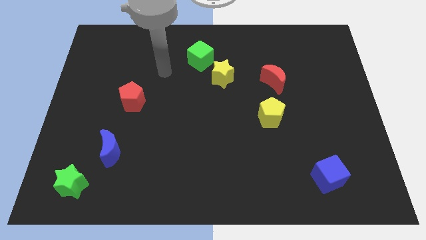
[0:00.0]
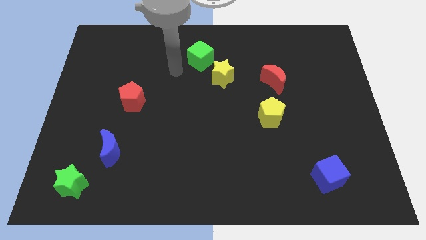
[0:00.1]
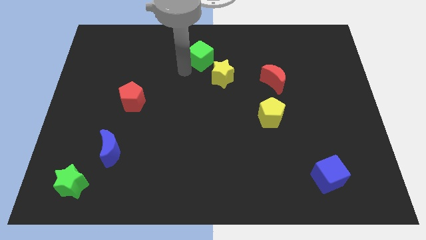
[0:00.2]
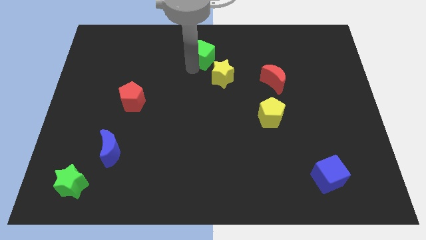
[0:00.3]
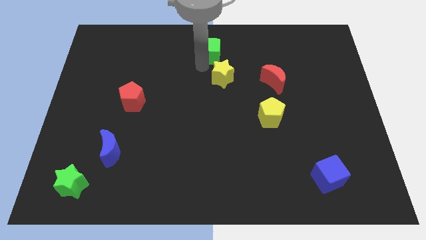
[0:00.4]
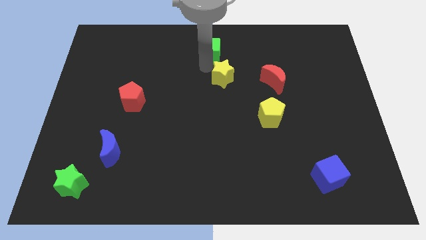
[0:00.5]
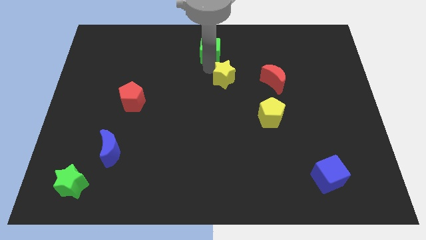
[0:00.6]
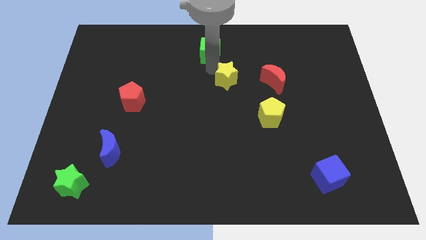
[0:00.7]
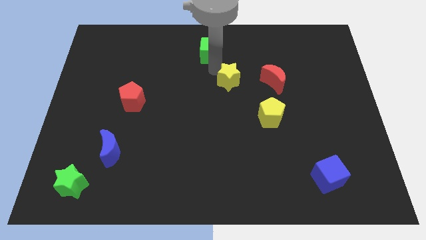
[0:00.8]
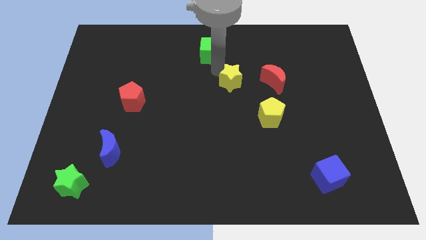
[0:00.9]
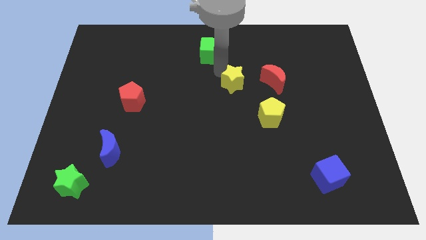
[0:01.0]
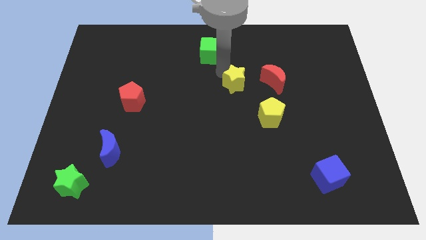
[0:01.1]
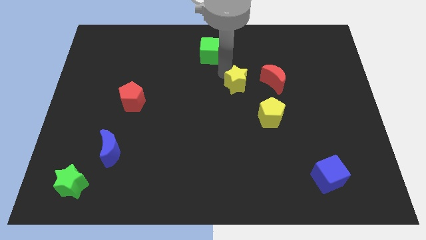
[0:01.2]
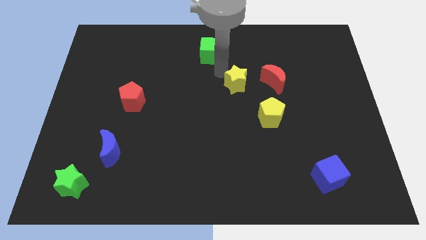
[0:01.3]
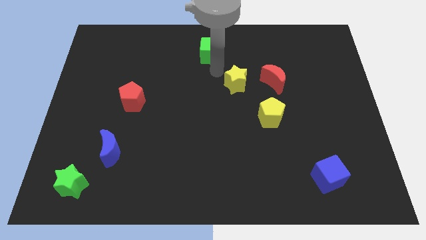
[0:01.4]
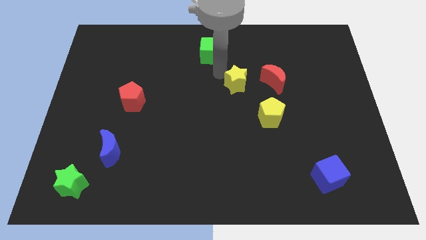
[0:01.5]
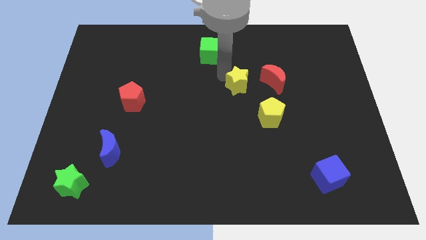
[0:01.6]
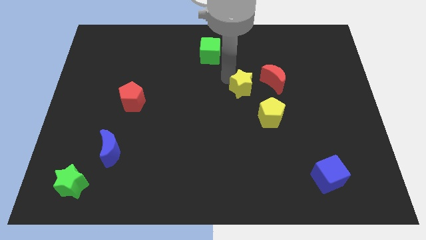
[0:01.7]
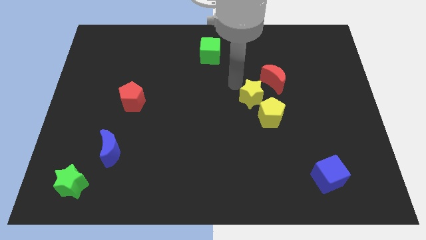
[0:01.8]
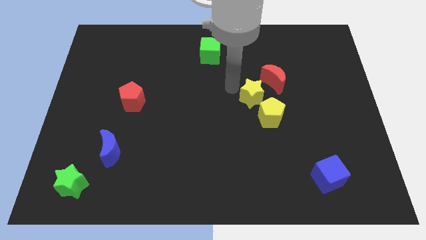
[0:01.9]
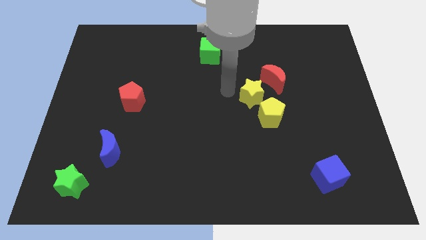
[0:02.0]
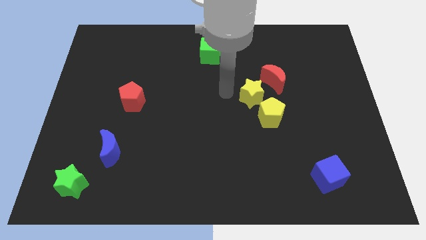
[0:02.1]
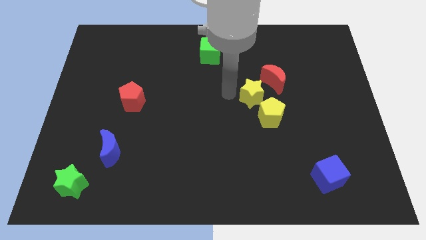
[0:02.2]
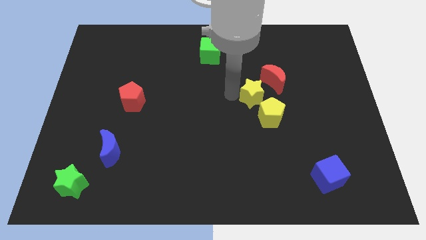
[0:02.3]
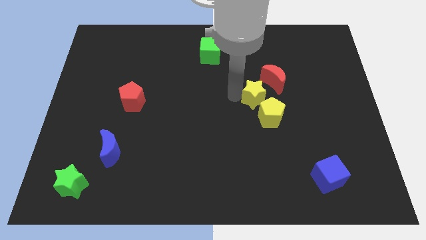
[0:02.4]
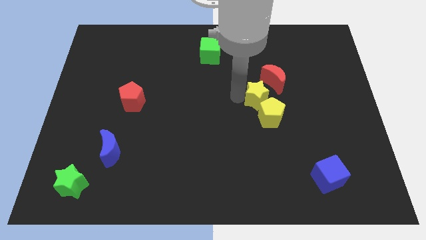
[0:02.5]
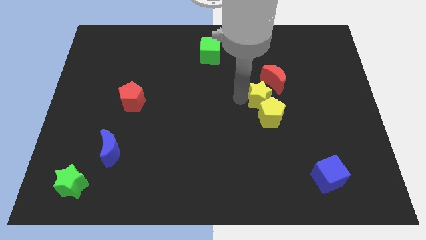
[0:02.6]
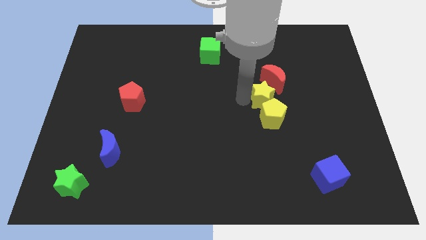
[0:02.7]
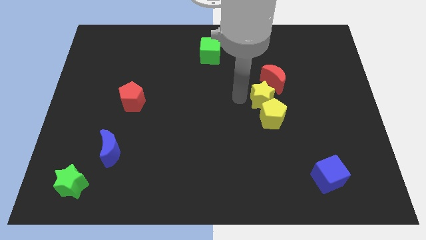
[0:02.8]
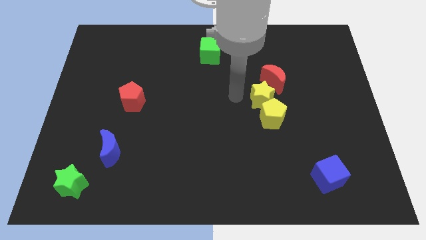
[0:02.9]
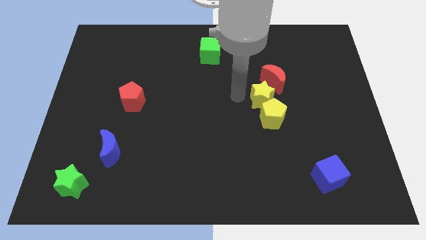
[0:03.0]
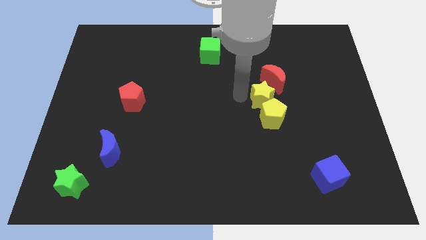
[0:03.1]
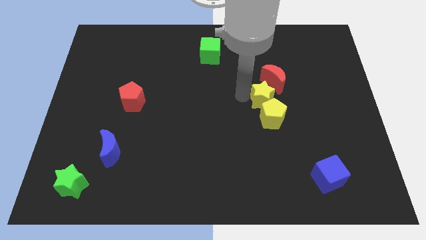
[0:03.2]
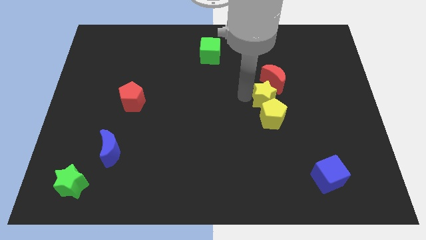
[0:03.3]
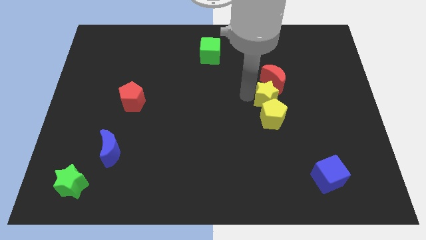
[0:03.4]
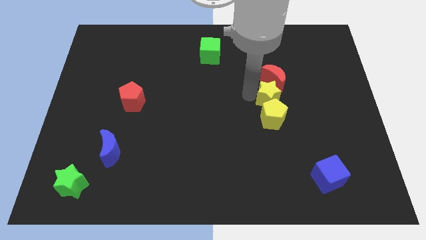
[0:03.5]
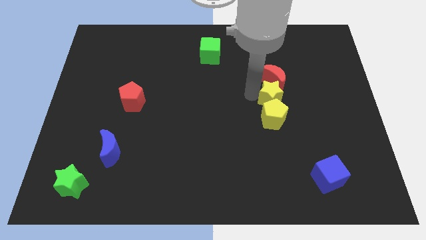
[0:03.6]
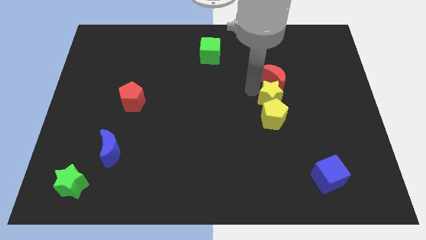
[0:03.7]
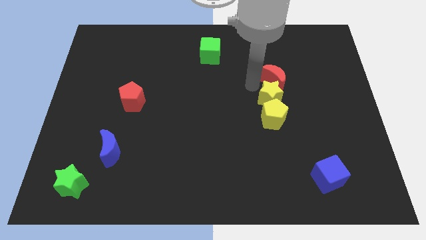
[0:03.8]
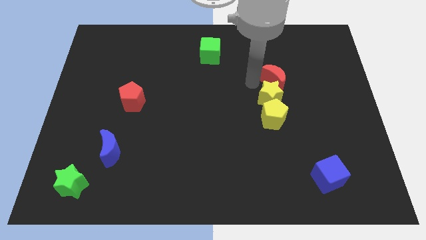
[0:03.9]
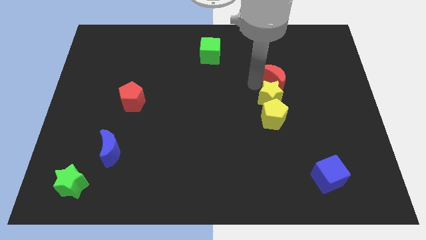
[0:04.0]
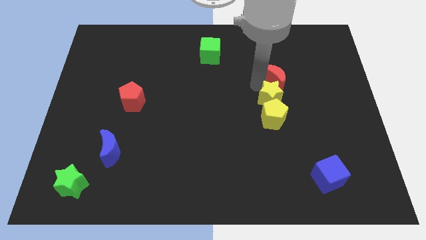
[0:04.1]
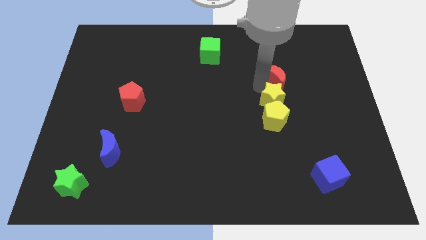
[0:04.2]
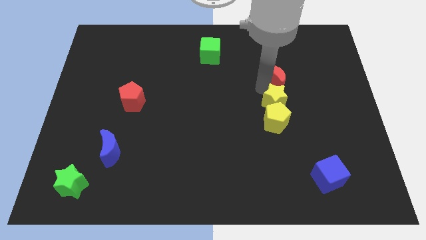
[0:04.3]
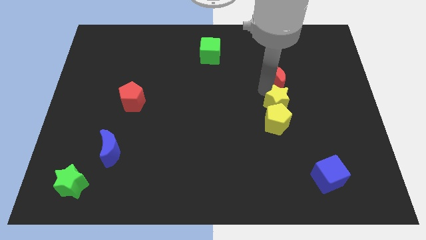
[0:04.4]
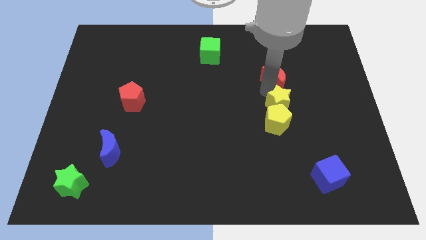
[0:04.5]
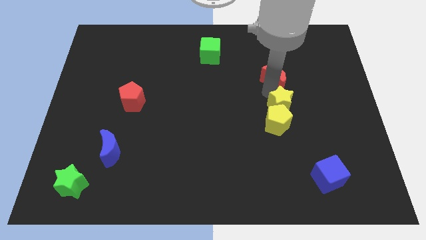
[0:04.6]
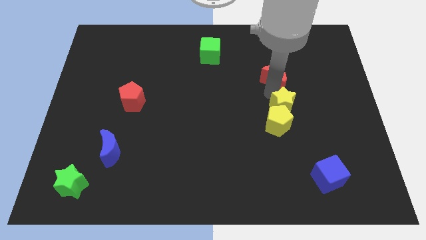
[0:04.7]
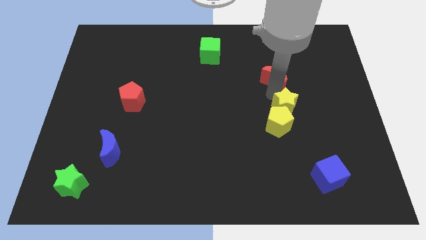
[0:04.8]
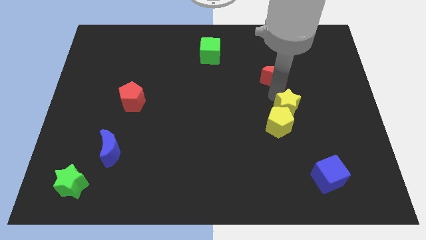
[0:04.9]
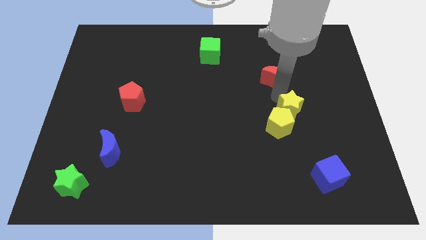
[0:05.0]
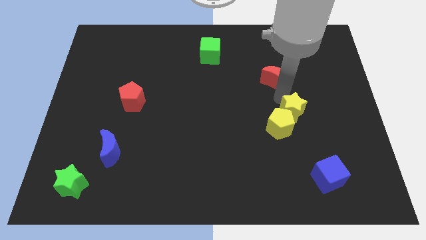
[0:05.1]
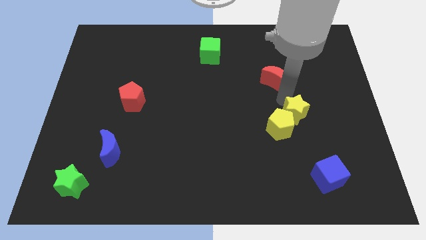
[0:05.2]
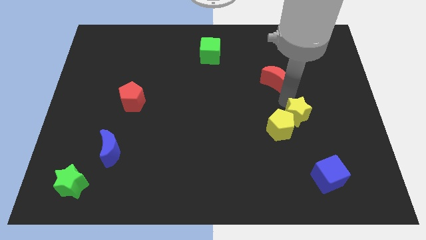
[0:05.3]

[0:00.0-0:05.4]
slide the yellow star downwards and to the right diagonally

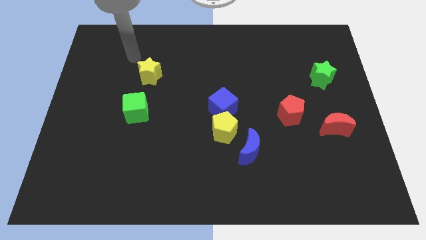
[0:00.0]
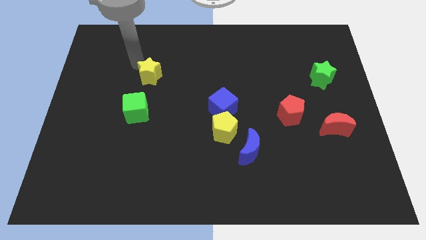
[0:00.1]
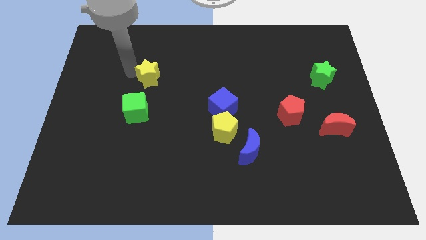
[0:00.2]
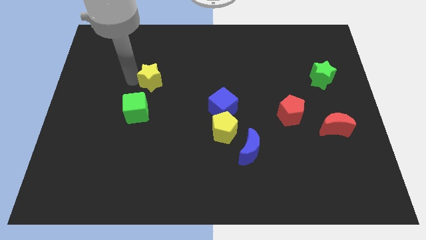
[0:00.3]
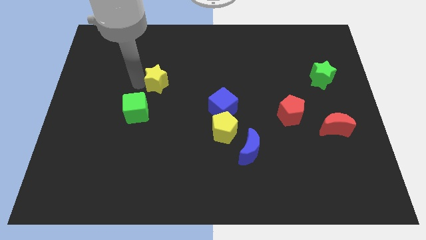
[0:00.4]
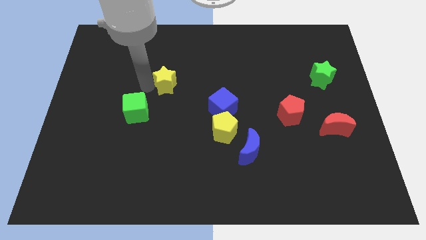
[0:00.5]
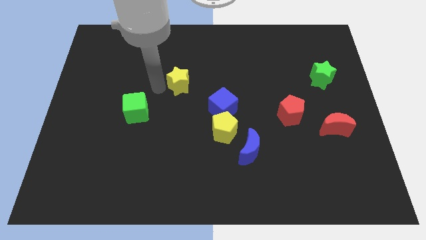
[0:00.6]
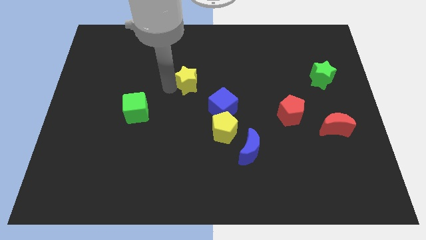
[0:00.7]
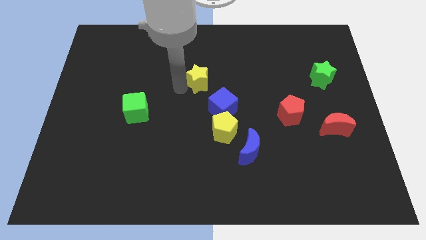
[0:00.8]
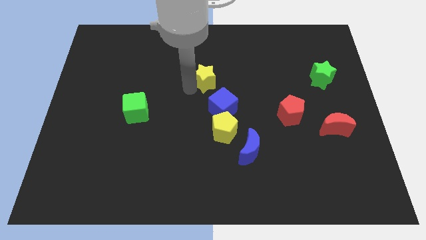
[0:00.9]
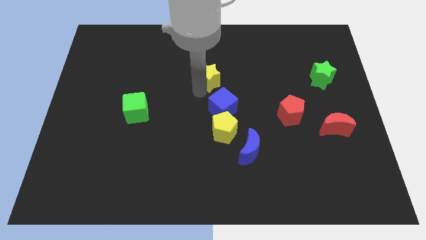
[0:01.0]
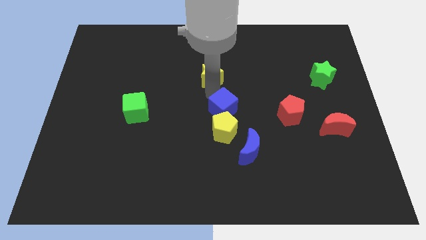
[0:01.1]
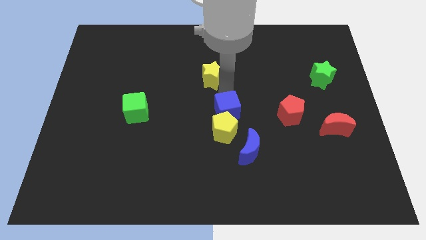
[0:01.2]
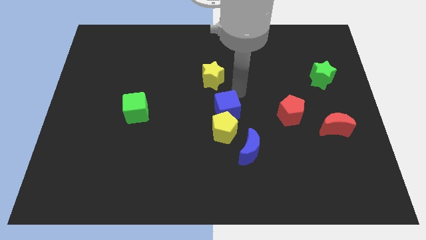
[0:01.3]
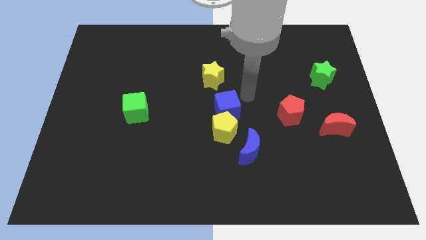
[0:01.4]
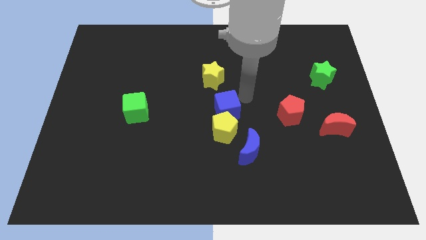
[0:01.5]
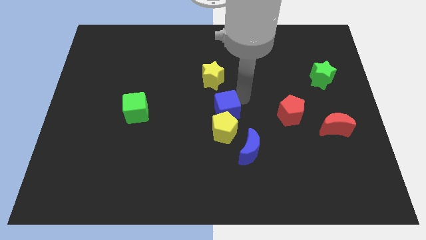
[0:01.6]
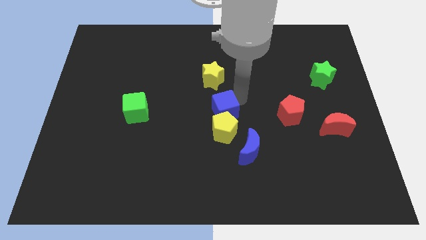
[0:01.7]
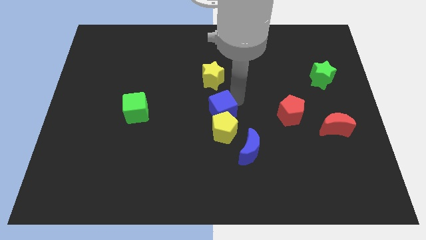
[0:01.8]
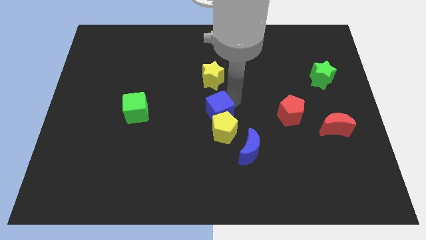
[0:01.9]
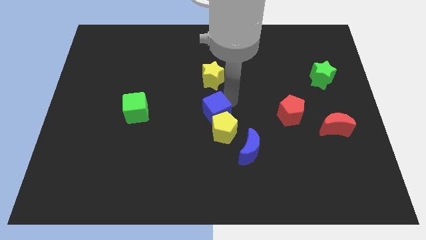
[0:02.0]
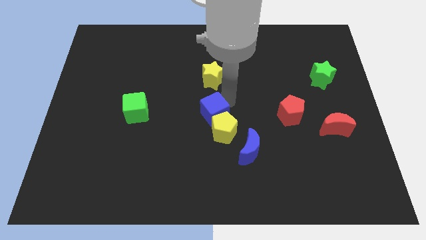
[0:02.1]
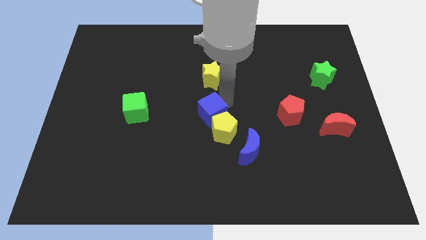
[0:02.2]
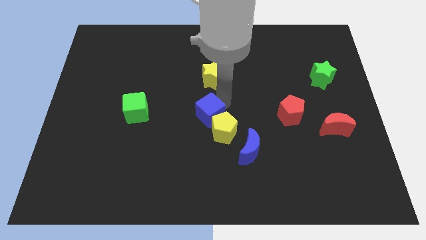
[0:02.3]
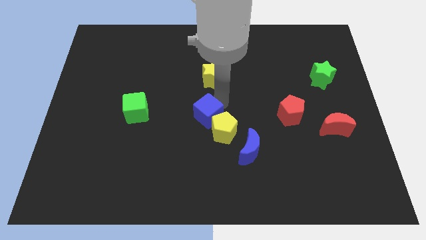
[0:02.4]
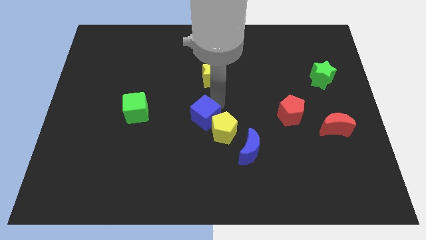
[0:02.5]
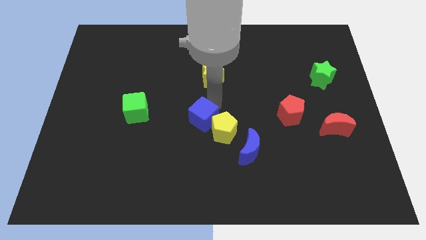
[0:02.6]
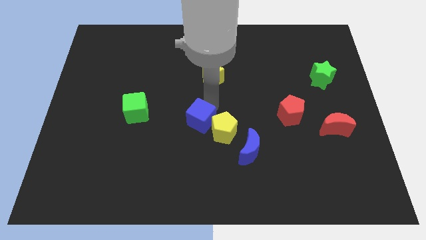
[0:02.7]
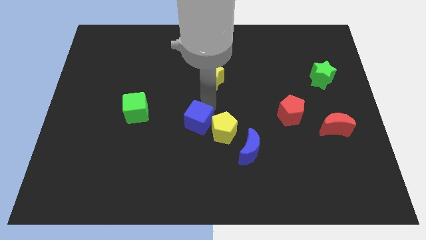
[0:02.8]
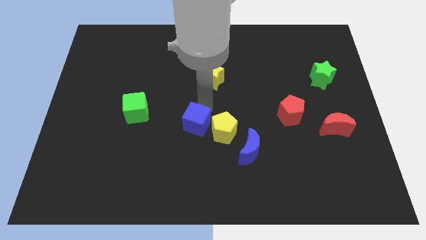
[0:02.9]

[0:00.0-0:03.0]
slide the blue cube a bit downwards and left
